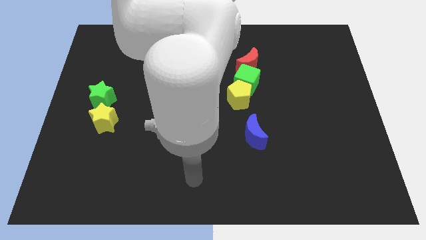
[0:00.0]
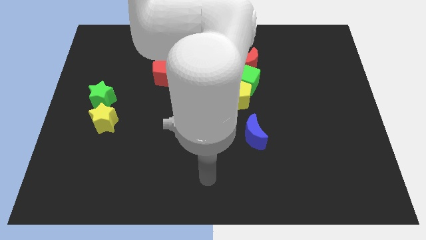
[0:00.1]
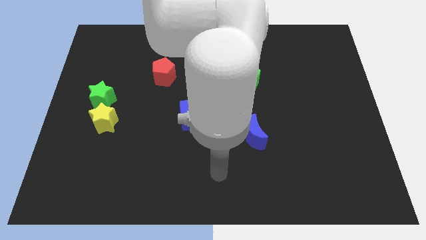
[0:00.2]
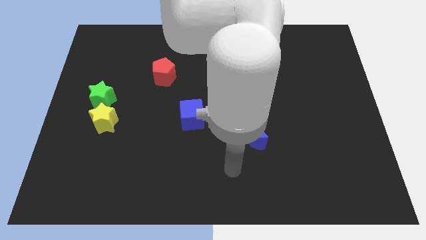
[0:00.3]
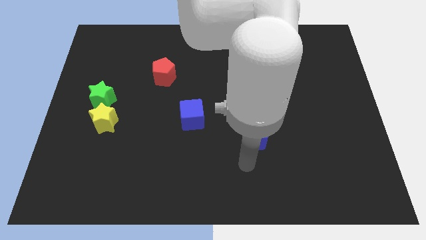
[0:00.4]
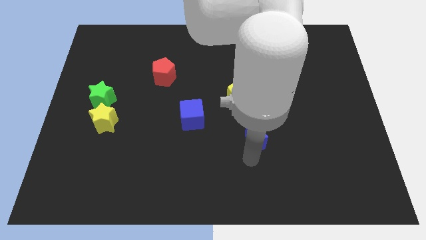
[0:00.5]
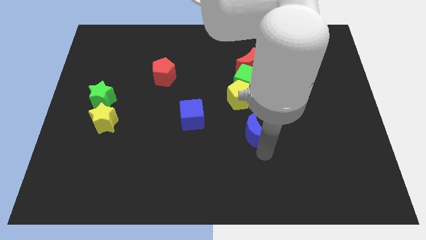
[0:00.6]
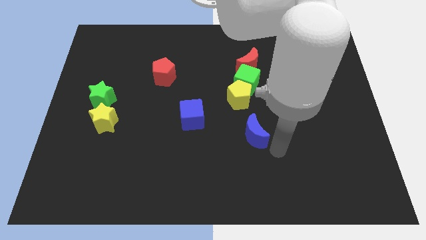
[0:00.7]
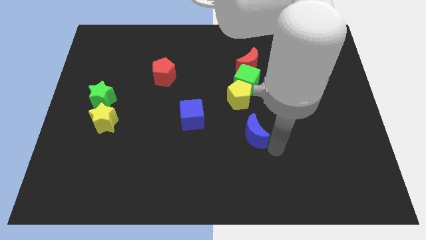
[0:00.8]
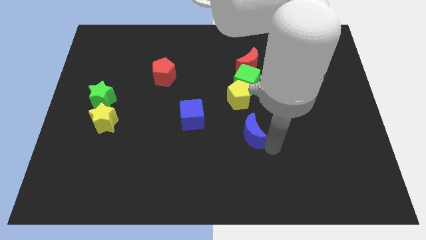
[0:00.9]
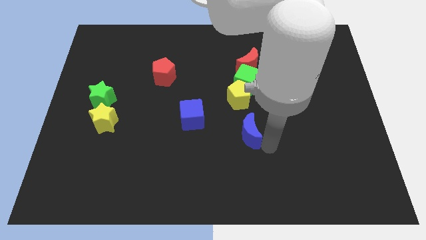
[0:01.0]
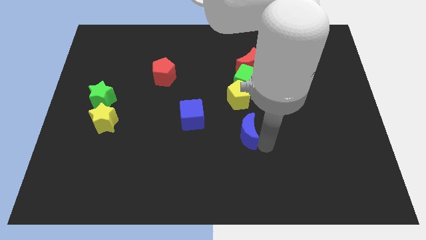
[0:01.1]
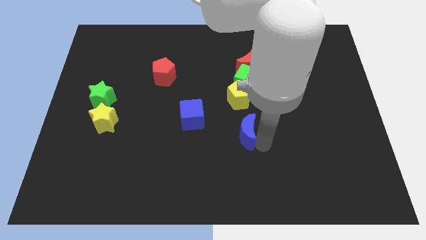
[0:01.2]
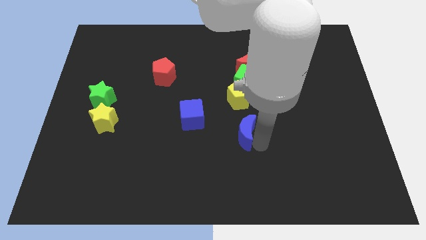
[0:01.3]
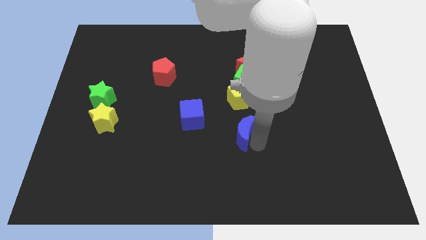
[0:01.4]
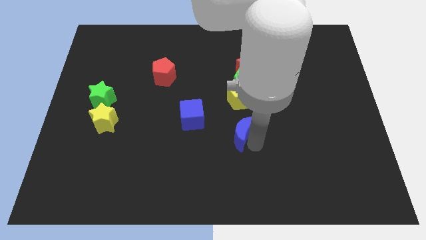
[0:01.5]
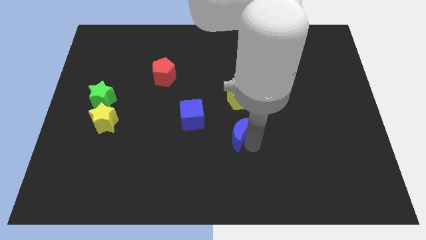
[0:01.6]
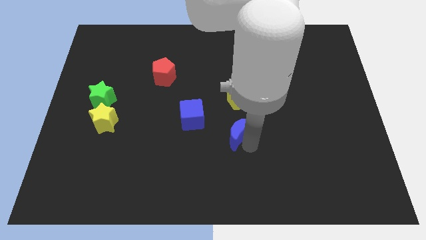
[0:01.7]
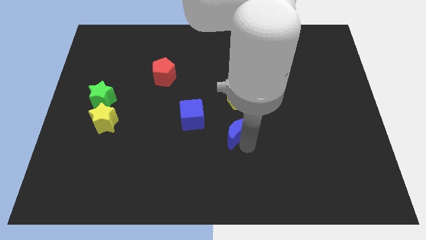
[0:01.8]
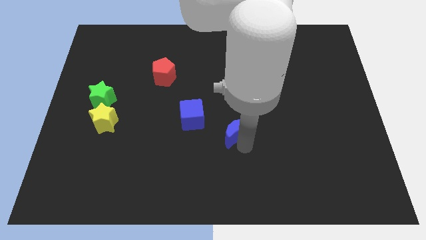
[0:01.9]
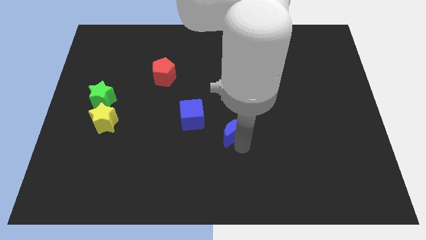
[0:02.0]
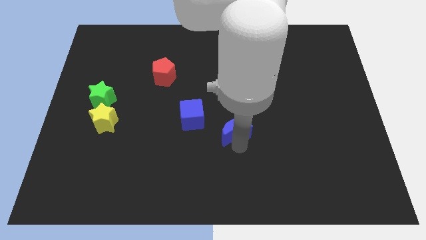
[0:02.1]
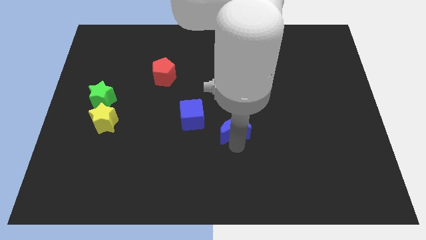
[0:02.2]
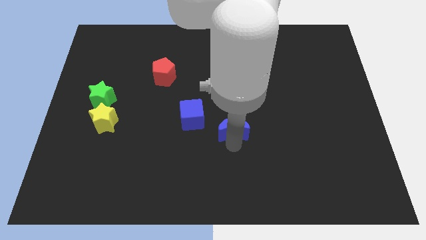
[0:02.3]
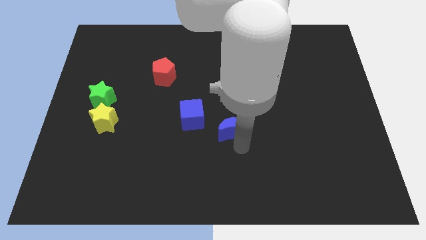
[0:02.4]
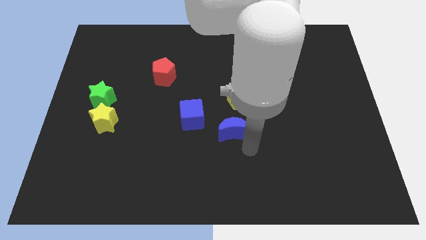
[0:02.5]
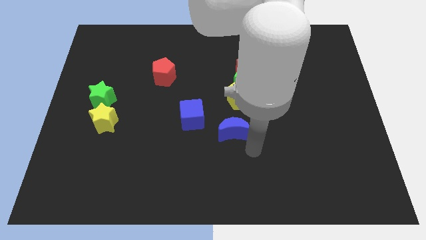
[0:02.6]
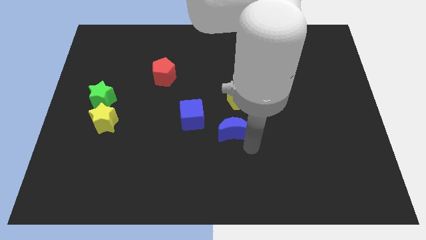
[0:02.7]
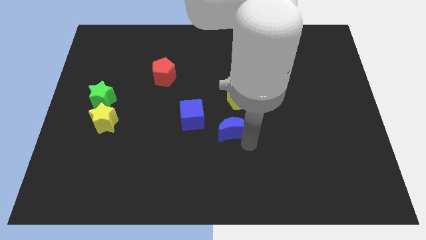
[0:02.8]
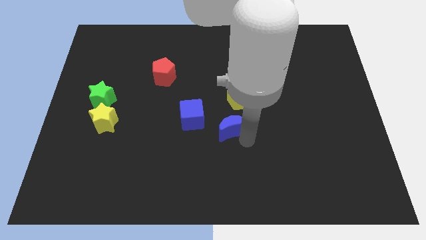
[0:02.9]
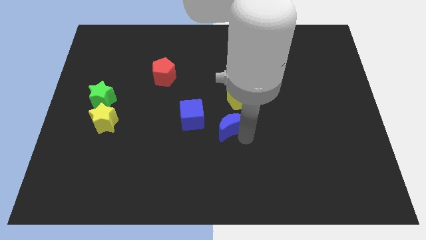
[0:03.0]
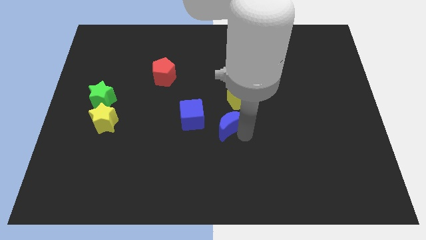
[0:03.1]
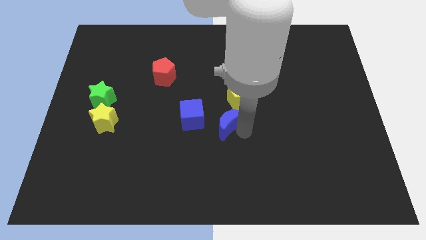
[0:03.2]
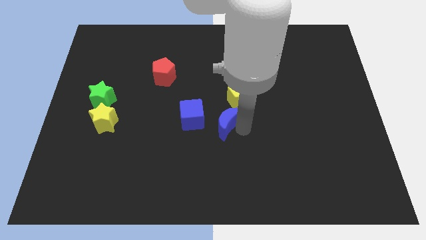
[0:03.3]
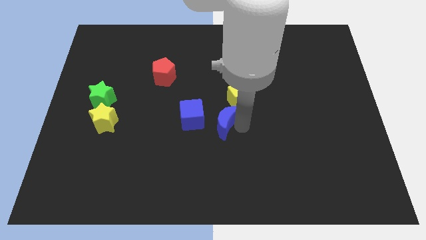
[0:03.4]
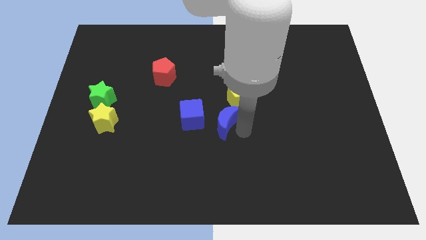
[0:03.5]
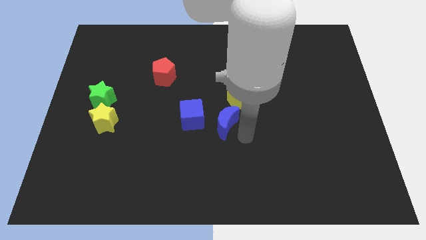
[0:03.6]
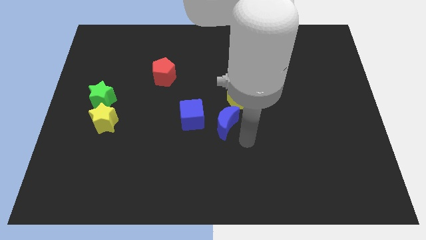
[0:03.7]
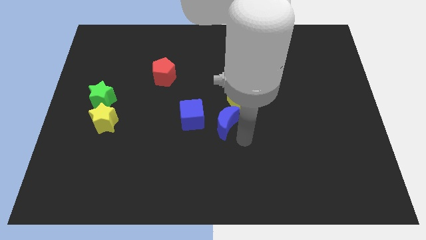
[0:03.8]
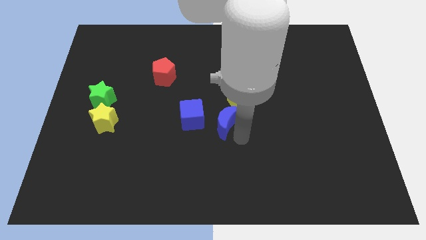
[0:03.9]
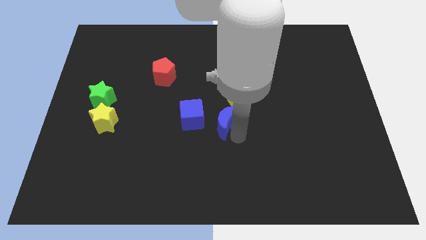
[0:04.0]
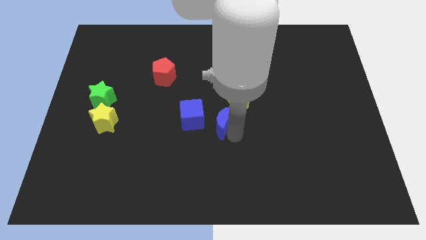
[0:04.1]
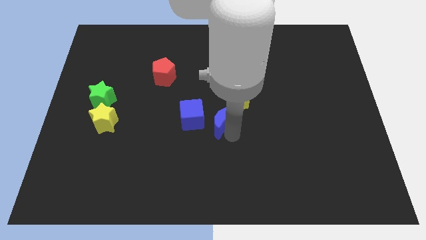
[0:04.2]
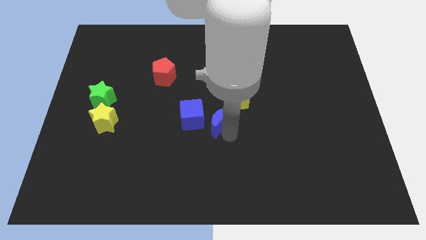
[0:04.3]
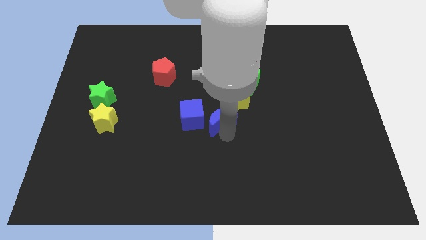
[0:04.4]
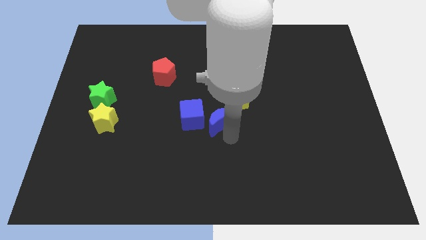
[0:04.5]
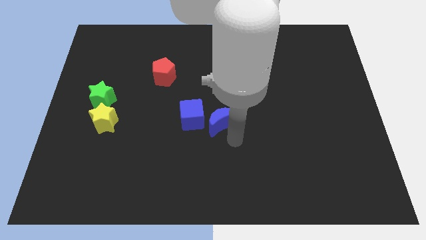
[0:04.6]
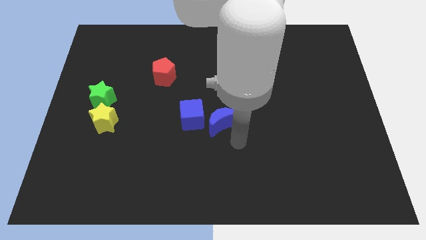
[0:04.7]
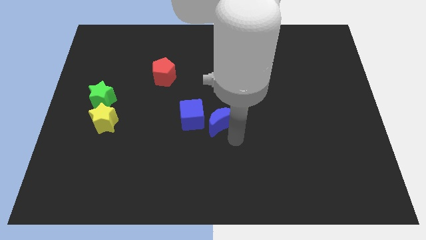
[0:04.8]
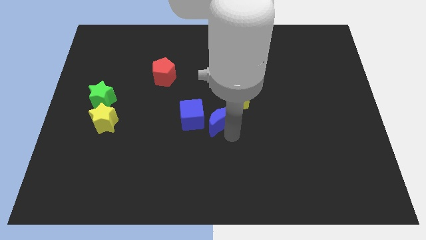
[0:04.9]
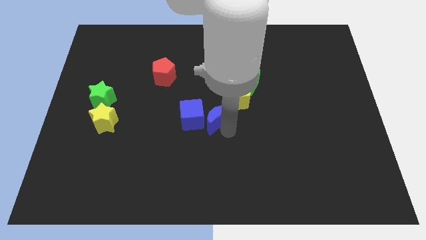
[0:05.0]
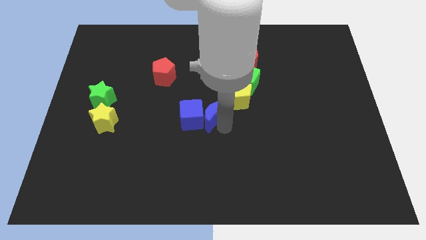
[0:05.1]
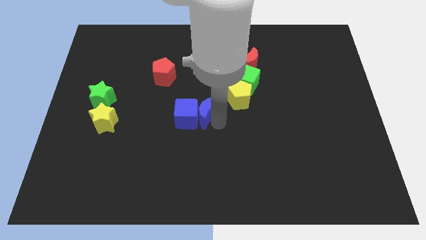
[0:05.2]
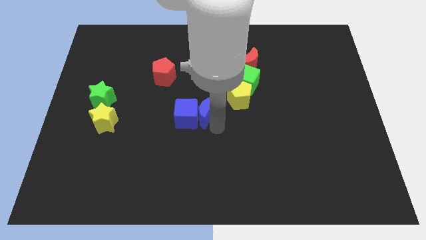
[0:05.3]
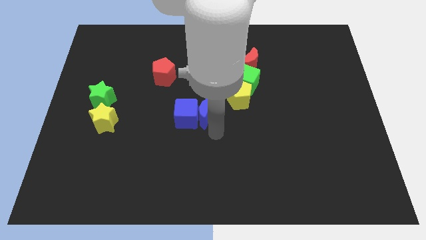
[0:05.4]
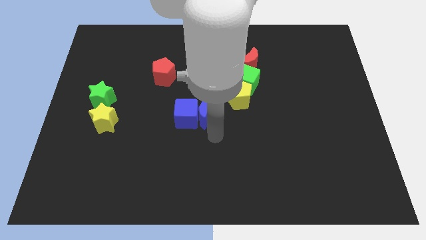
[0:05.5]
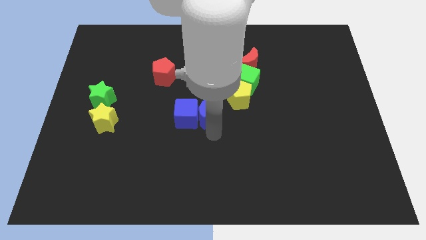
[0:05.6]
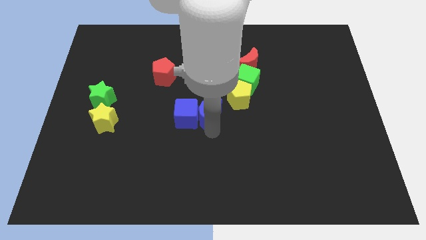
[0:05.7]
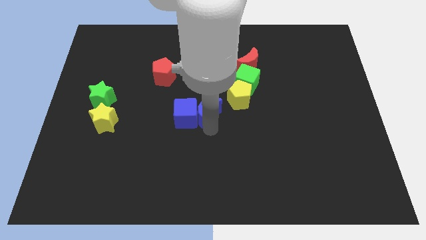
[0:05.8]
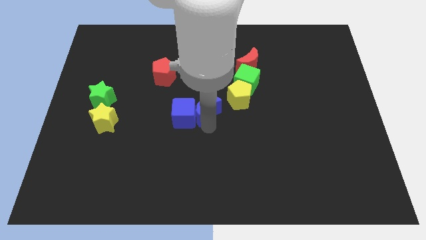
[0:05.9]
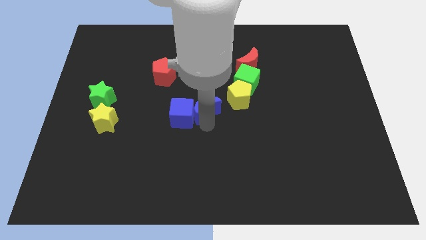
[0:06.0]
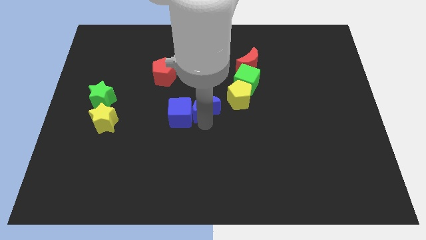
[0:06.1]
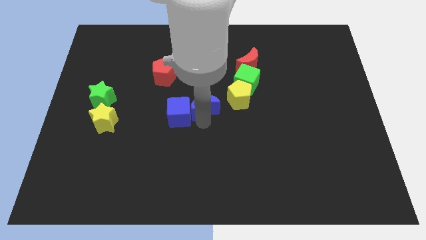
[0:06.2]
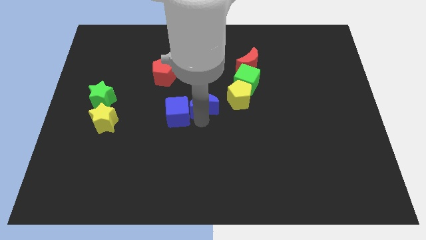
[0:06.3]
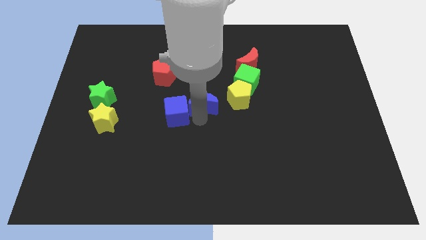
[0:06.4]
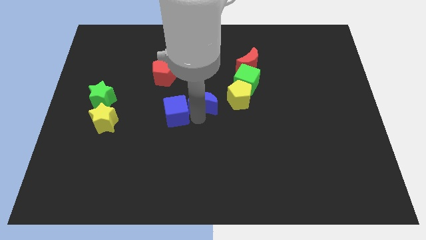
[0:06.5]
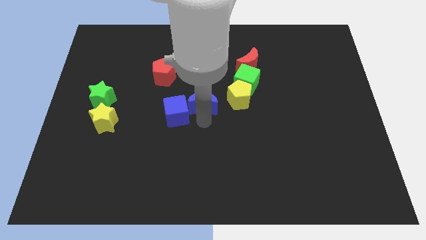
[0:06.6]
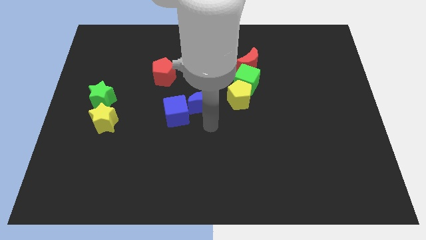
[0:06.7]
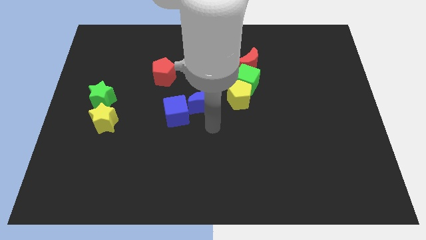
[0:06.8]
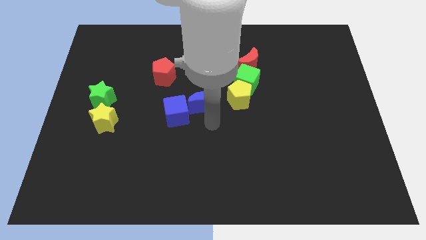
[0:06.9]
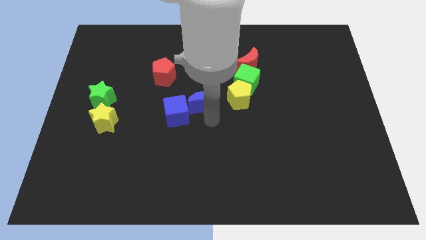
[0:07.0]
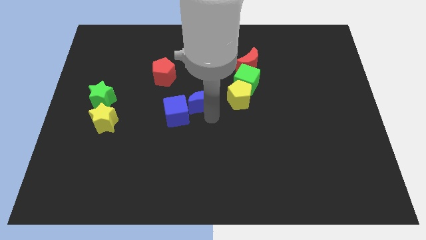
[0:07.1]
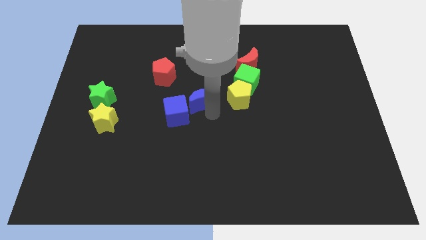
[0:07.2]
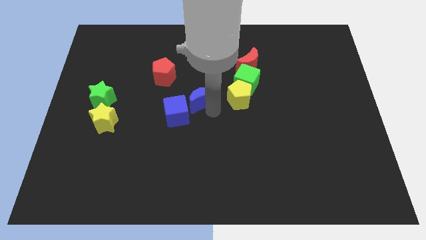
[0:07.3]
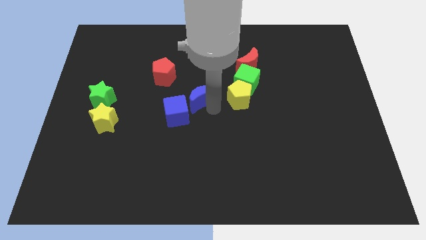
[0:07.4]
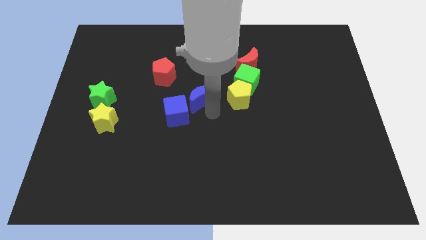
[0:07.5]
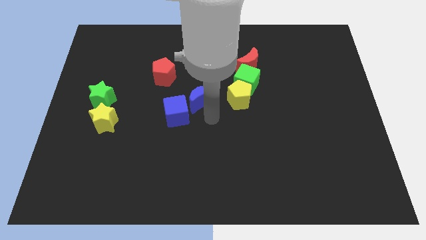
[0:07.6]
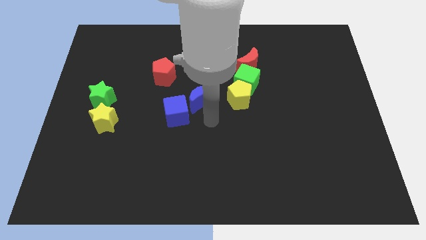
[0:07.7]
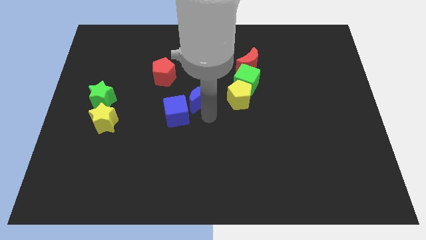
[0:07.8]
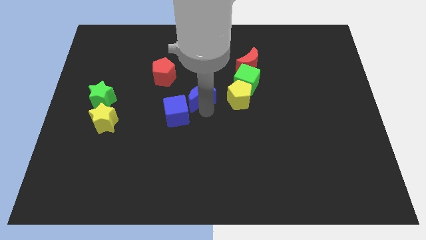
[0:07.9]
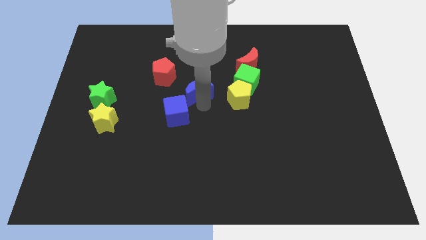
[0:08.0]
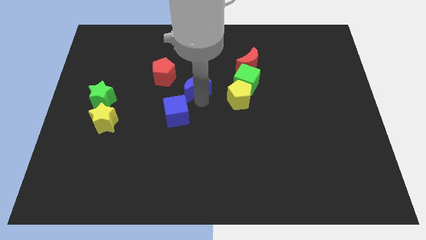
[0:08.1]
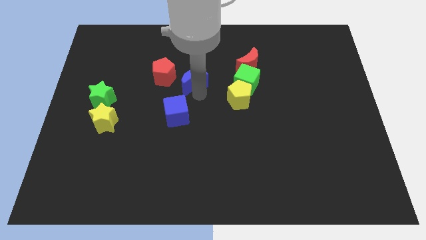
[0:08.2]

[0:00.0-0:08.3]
slide the blue moon upwards and to the left diagonally
